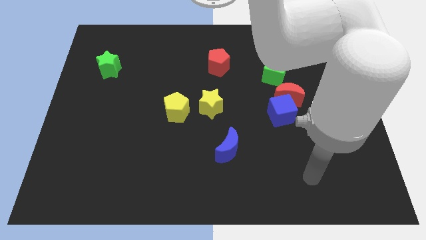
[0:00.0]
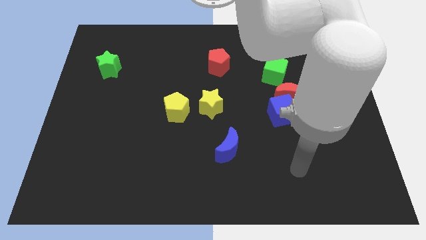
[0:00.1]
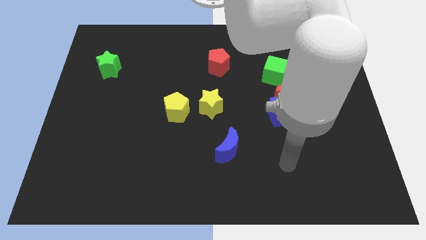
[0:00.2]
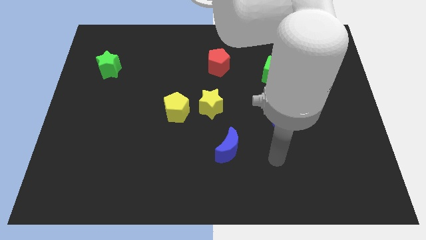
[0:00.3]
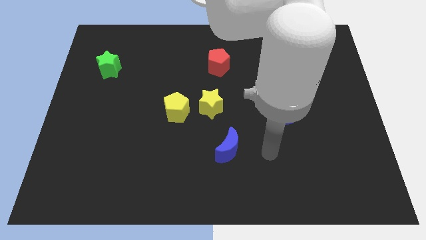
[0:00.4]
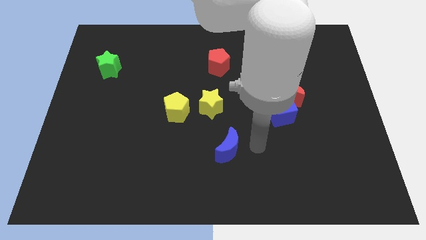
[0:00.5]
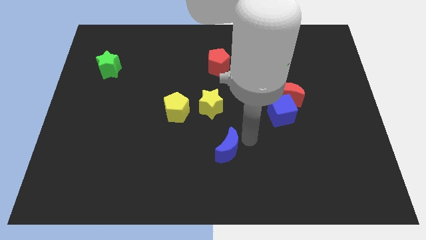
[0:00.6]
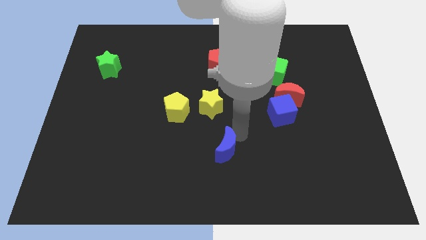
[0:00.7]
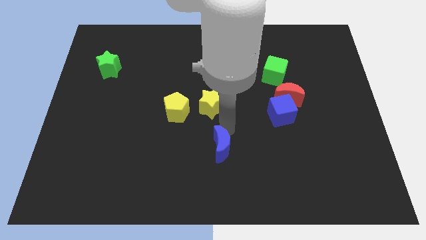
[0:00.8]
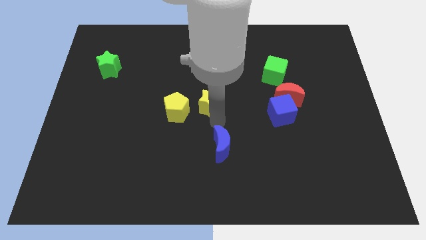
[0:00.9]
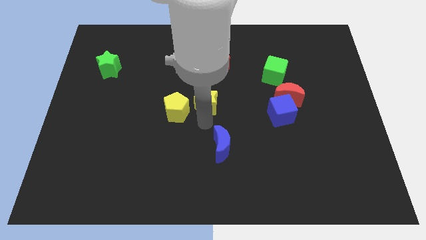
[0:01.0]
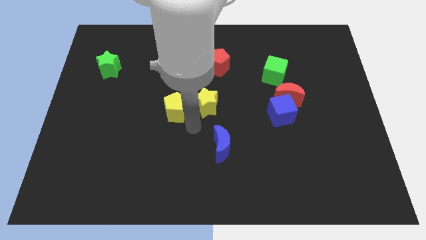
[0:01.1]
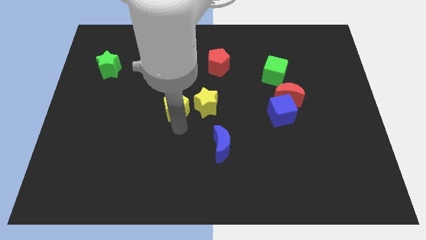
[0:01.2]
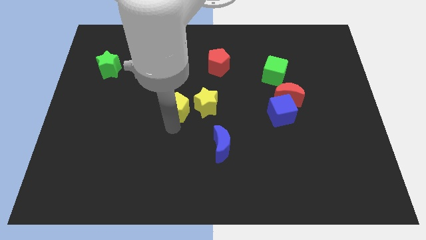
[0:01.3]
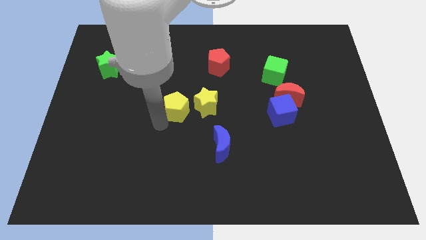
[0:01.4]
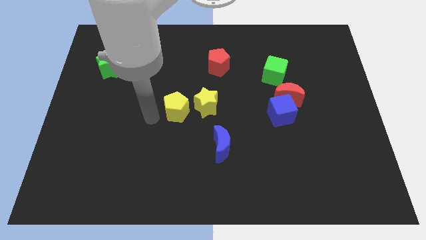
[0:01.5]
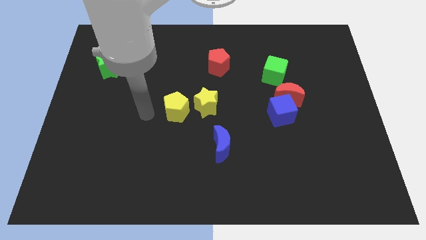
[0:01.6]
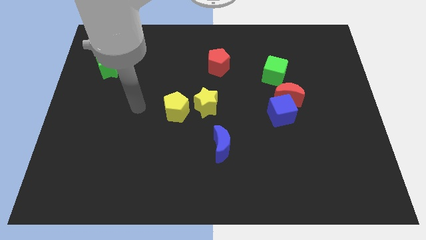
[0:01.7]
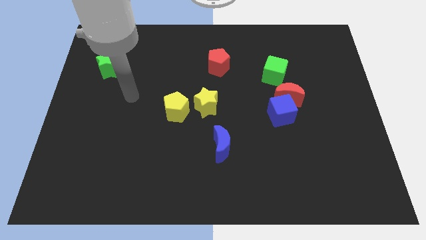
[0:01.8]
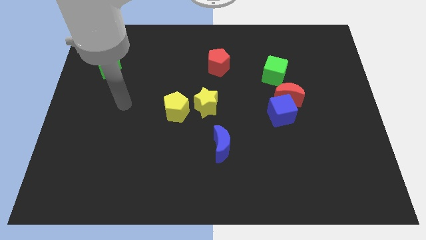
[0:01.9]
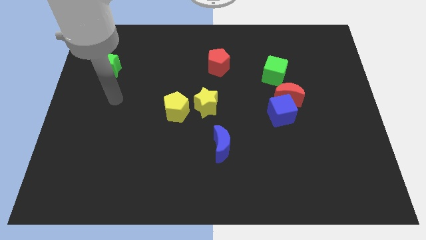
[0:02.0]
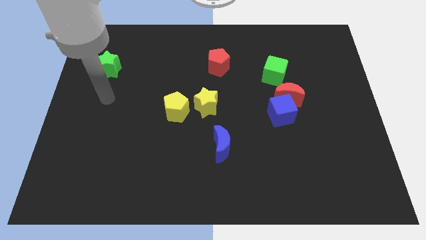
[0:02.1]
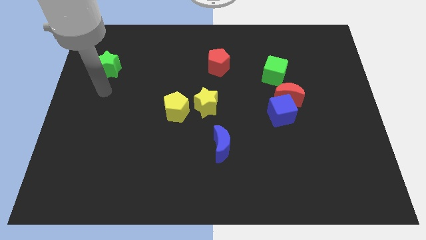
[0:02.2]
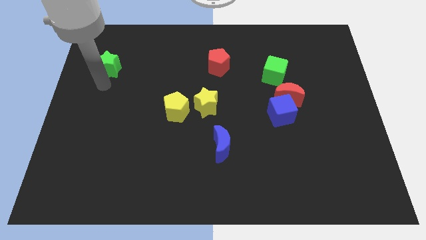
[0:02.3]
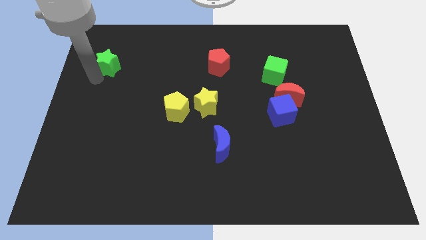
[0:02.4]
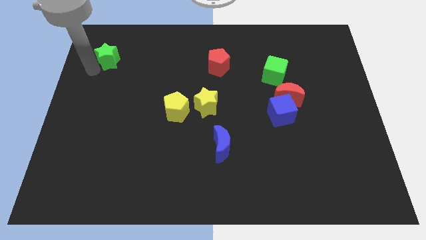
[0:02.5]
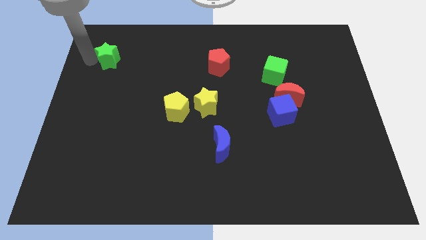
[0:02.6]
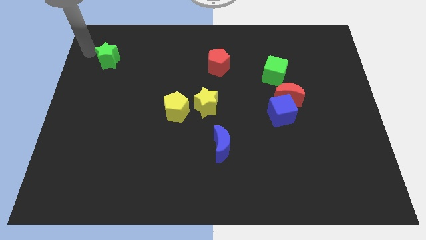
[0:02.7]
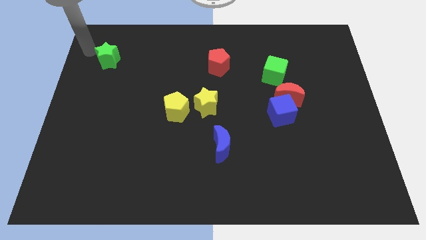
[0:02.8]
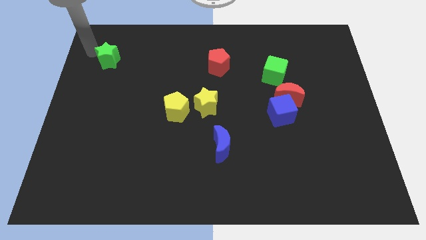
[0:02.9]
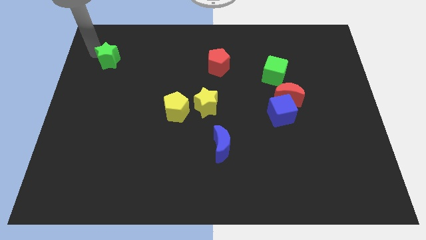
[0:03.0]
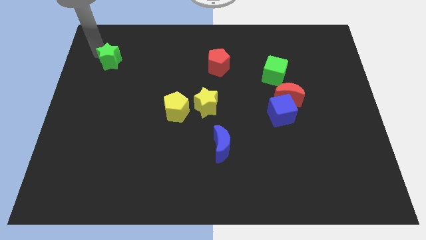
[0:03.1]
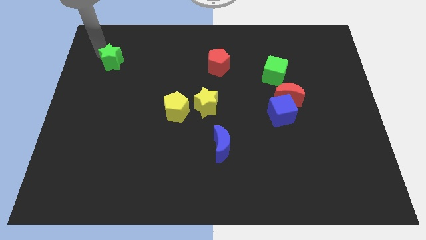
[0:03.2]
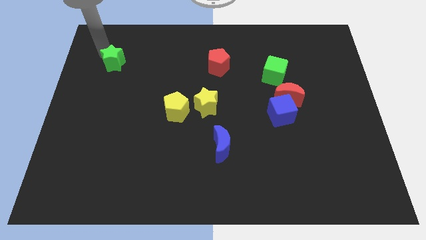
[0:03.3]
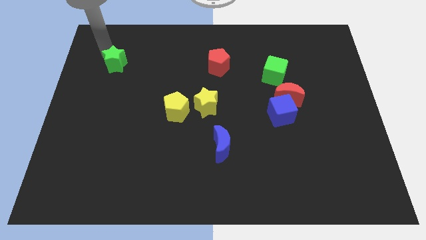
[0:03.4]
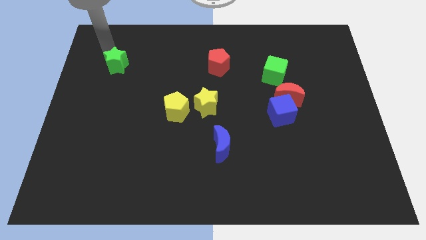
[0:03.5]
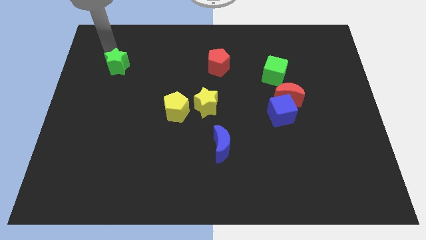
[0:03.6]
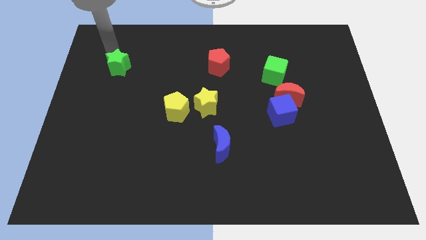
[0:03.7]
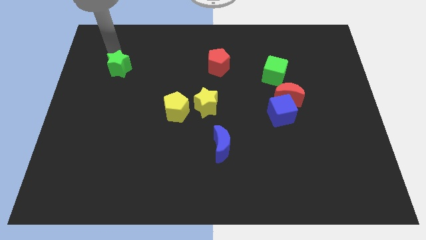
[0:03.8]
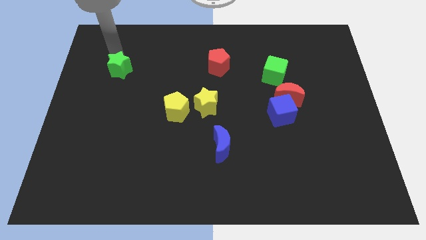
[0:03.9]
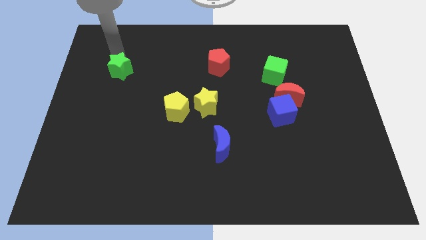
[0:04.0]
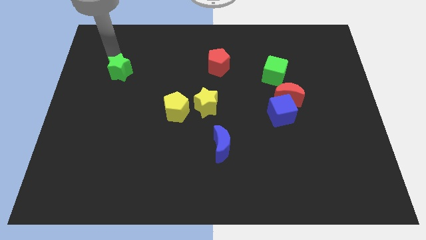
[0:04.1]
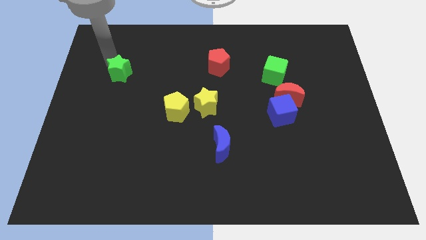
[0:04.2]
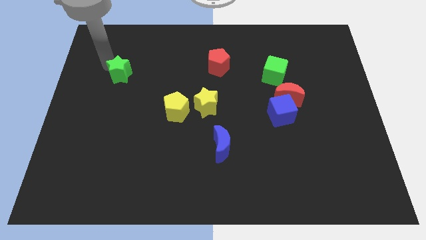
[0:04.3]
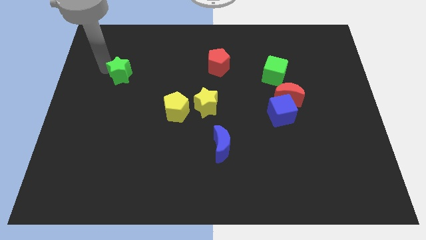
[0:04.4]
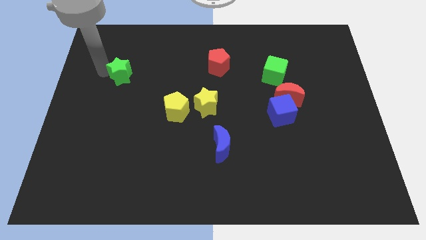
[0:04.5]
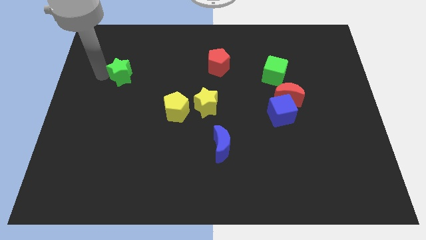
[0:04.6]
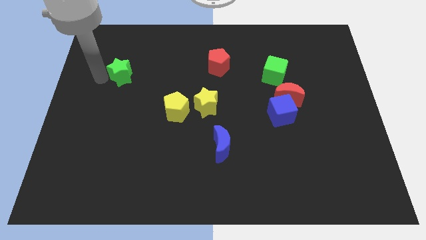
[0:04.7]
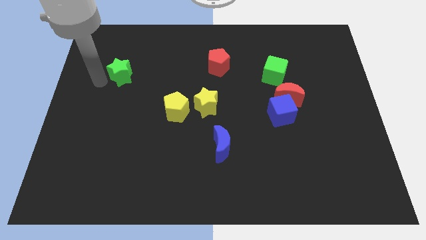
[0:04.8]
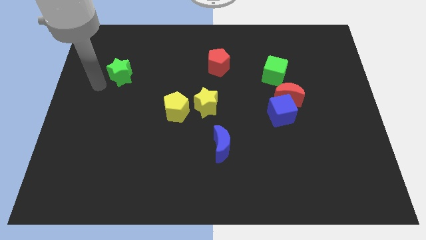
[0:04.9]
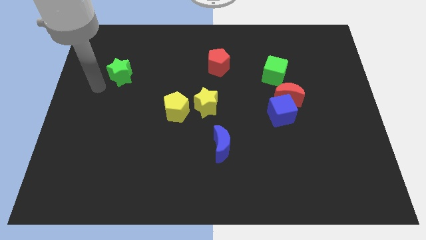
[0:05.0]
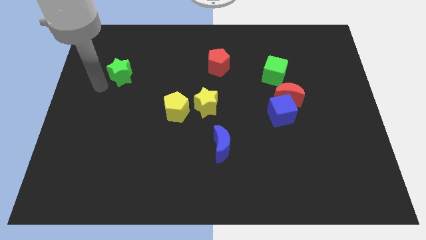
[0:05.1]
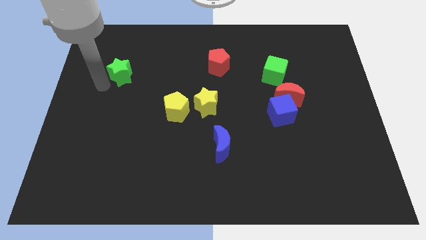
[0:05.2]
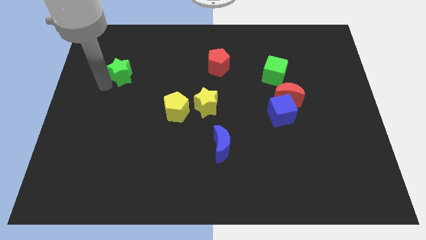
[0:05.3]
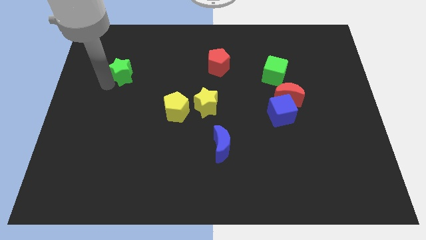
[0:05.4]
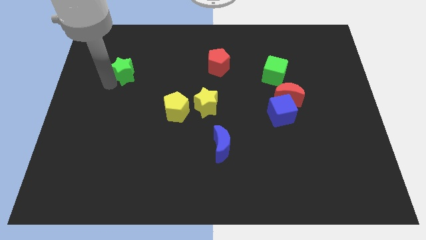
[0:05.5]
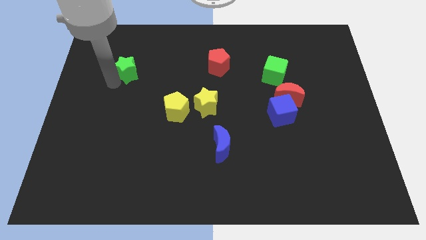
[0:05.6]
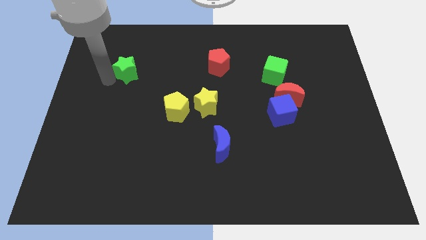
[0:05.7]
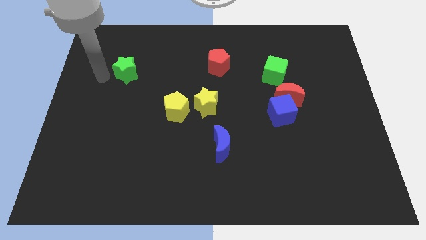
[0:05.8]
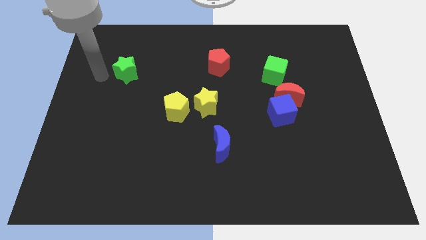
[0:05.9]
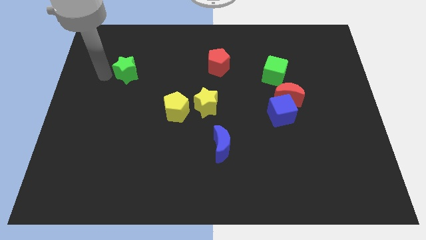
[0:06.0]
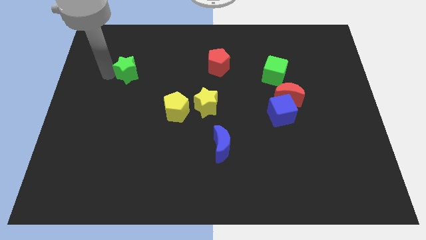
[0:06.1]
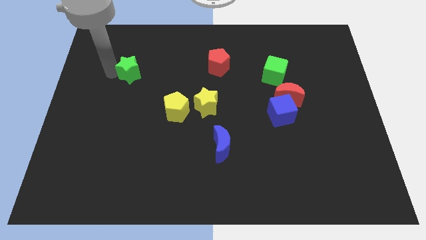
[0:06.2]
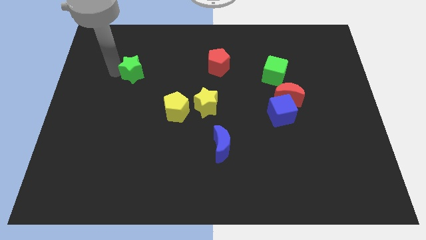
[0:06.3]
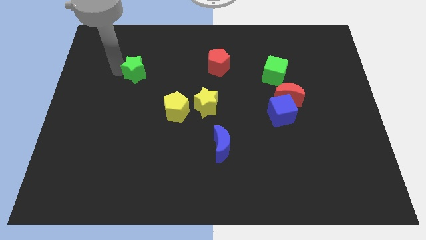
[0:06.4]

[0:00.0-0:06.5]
slightly move the green star right

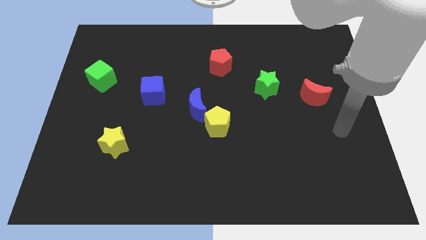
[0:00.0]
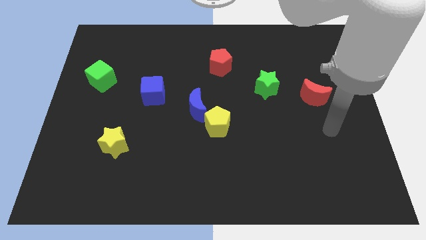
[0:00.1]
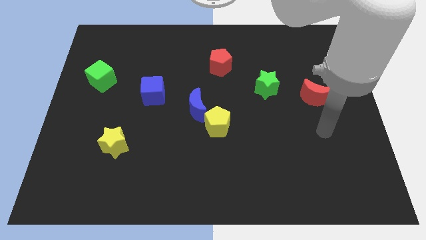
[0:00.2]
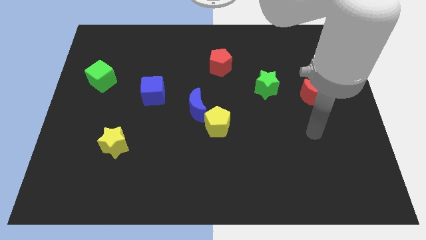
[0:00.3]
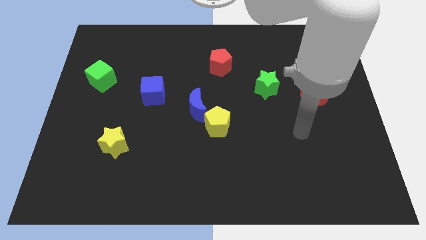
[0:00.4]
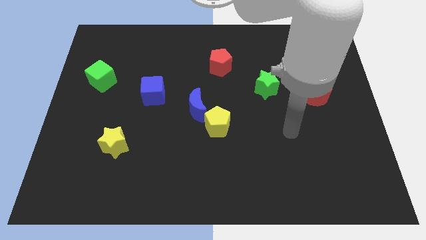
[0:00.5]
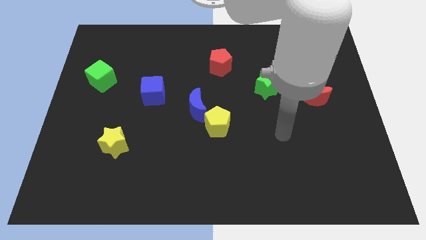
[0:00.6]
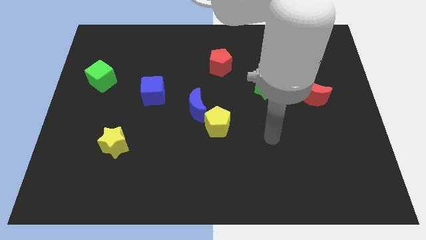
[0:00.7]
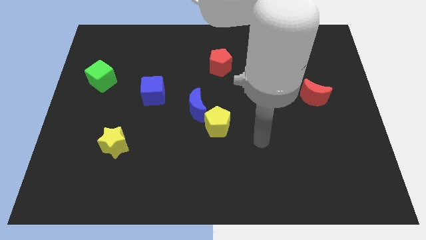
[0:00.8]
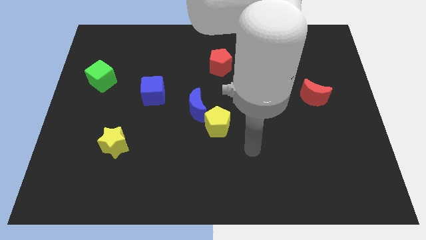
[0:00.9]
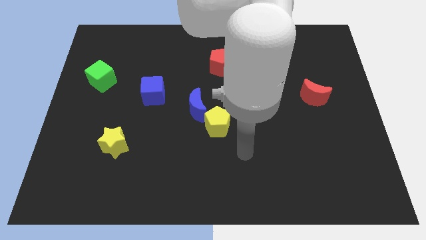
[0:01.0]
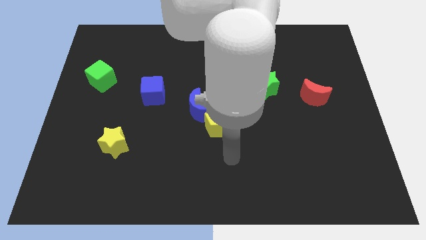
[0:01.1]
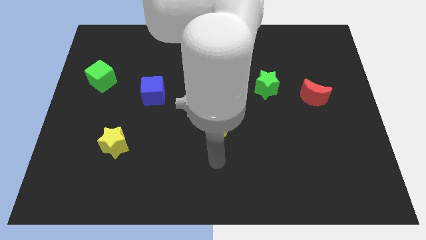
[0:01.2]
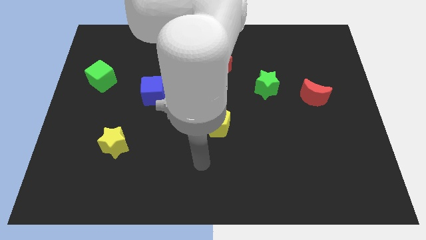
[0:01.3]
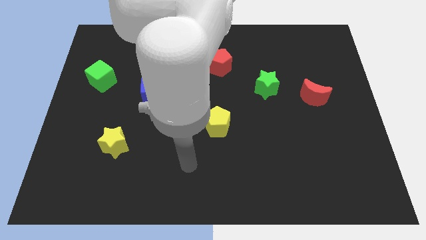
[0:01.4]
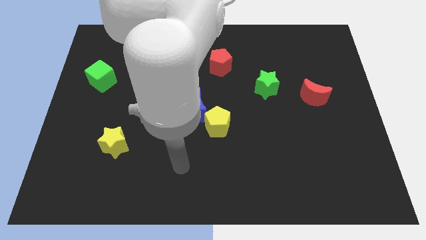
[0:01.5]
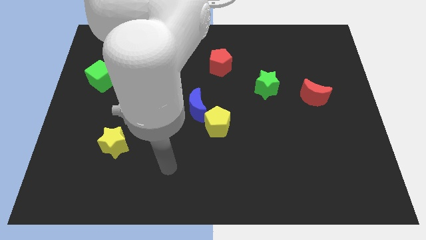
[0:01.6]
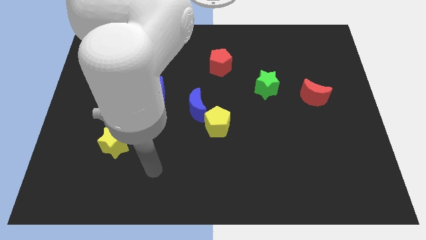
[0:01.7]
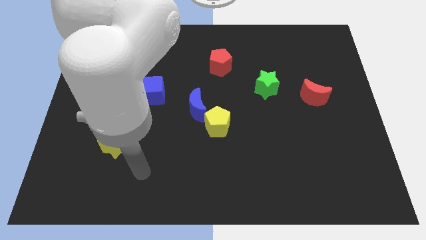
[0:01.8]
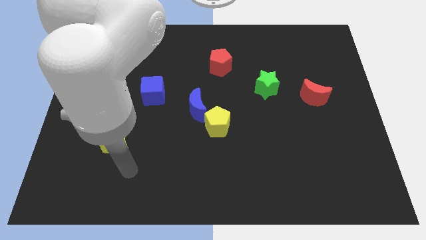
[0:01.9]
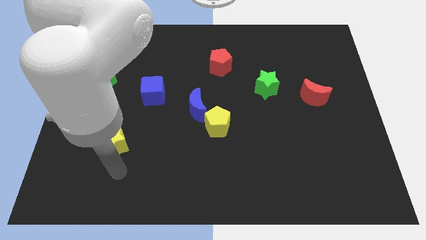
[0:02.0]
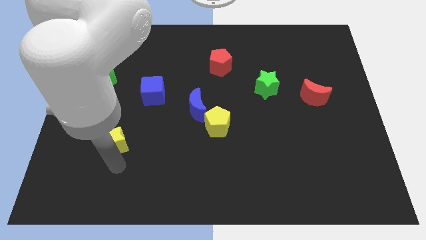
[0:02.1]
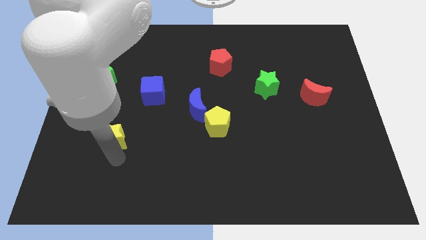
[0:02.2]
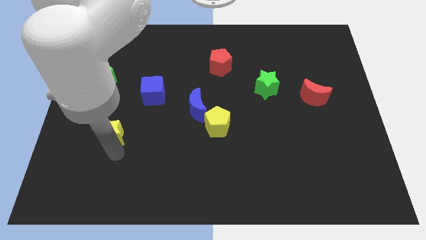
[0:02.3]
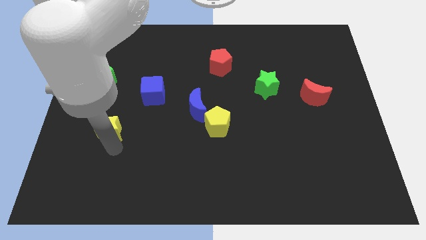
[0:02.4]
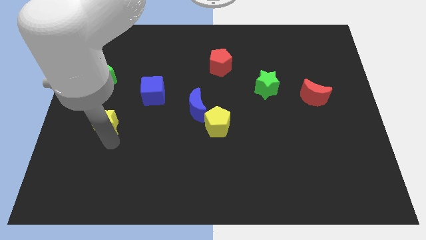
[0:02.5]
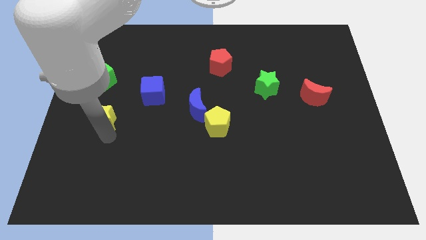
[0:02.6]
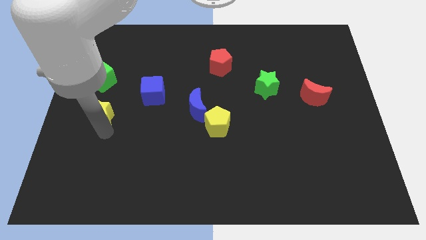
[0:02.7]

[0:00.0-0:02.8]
slightly slide the yellow star upwards
